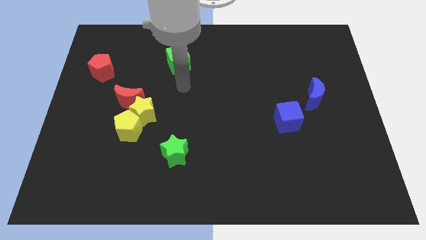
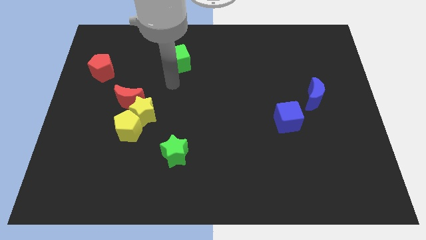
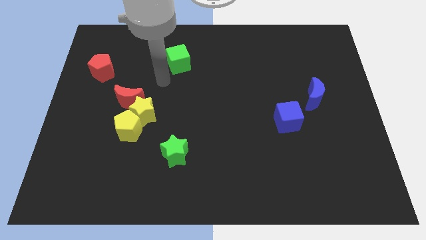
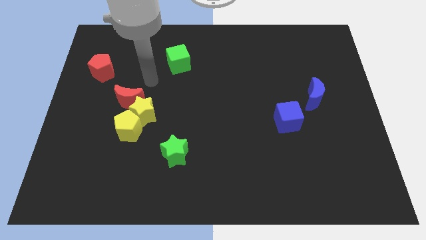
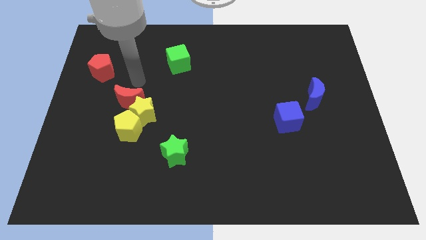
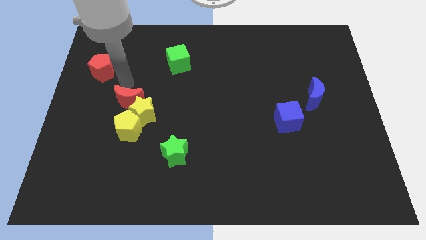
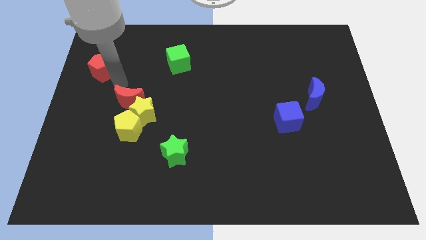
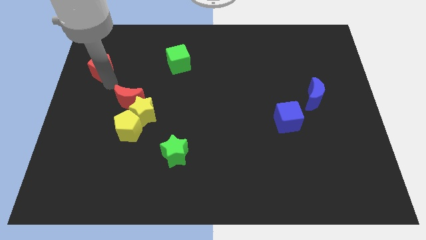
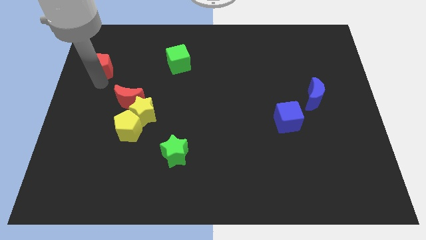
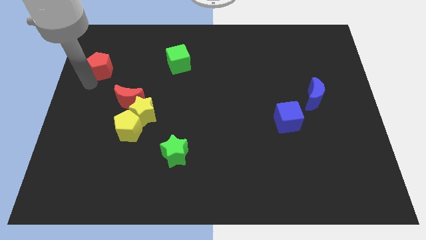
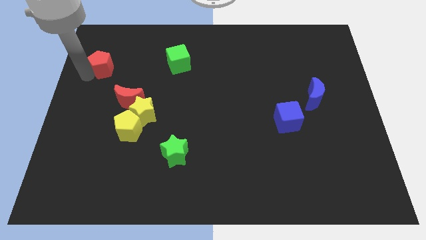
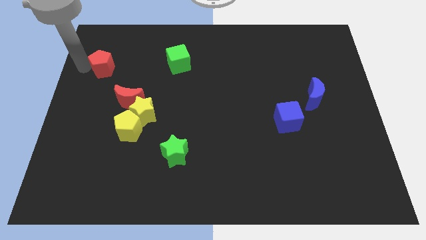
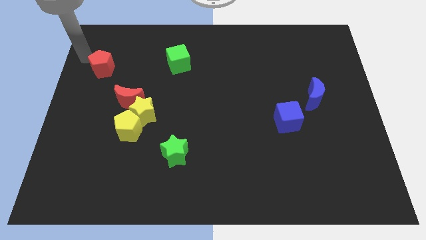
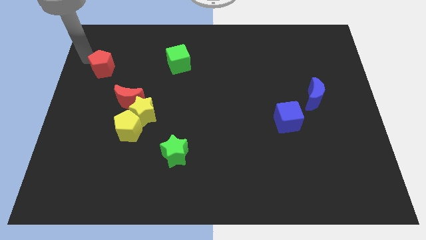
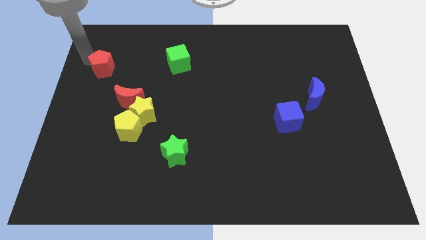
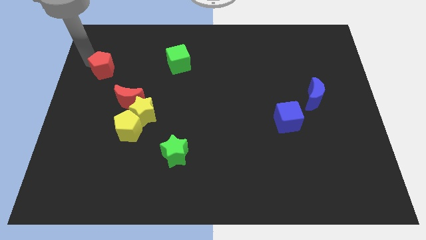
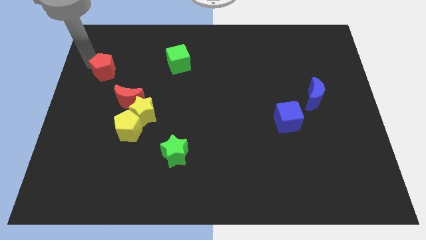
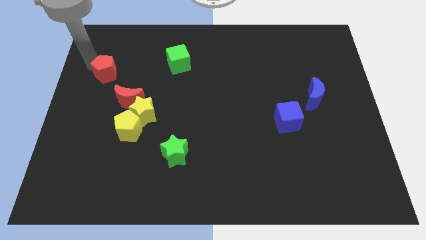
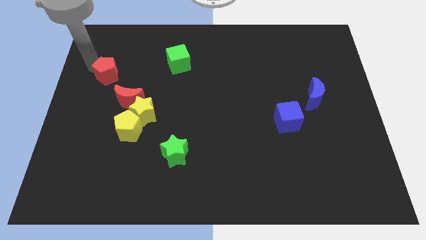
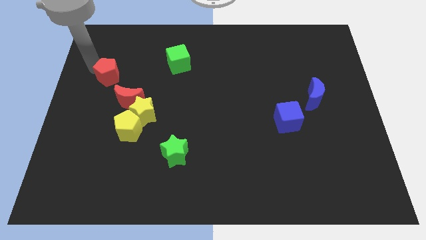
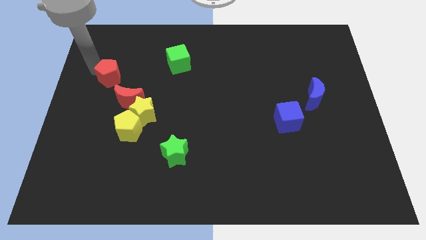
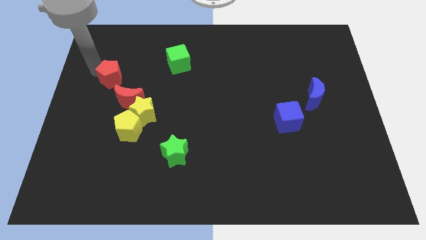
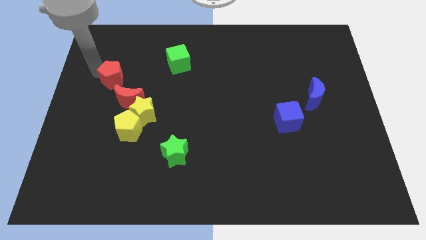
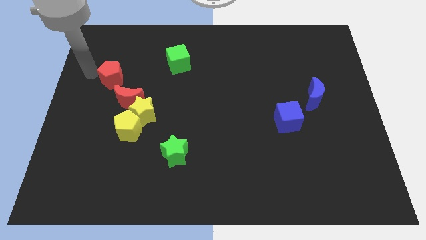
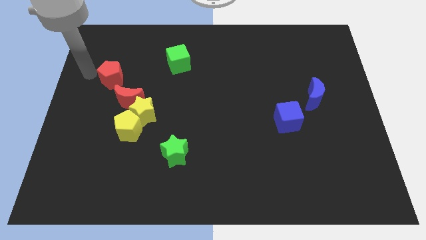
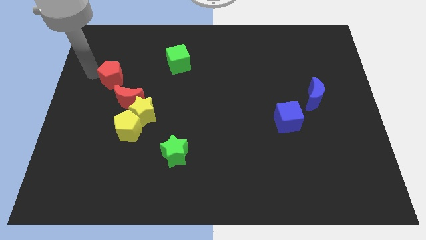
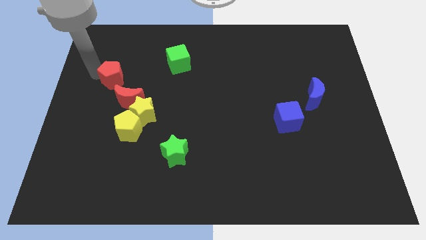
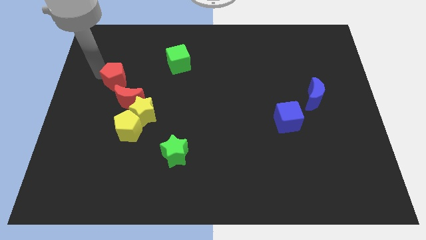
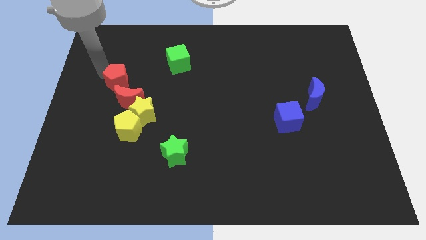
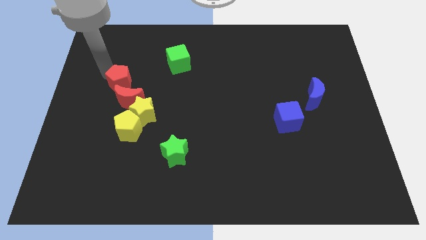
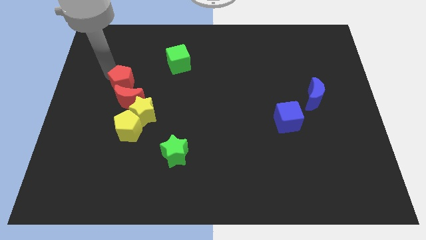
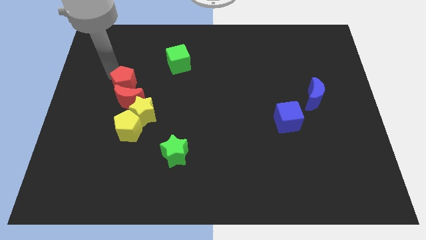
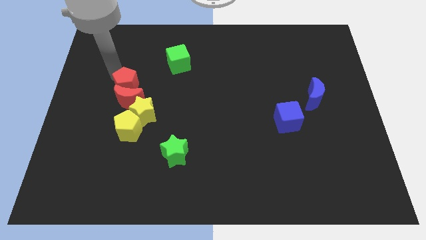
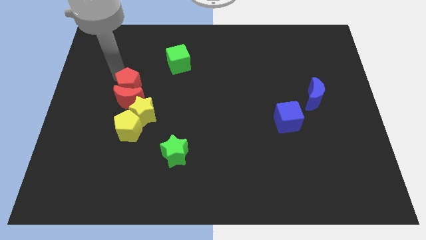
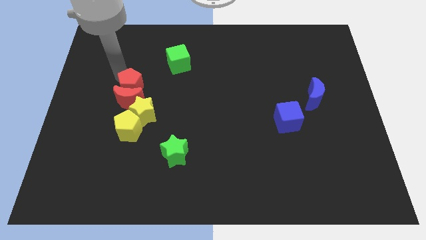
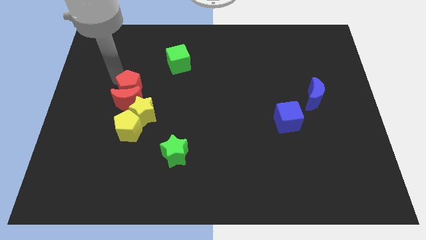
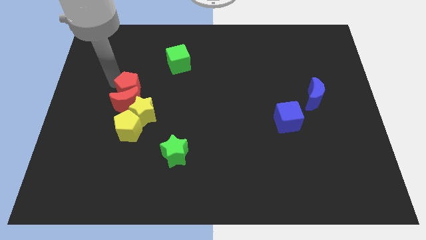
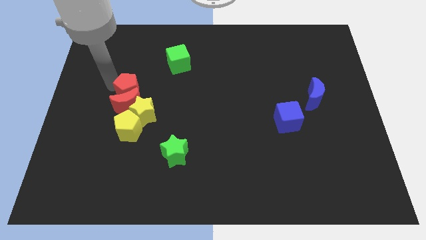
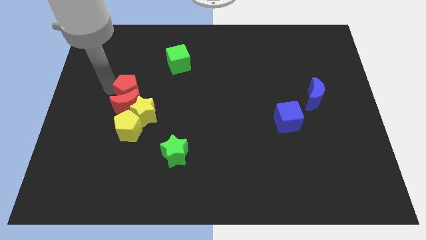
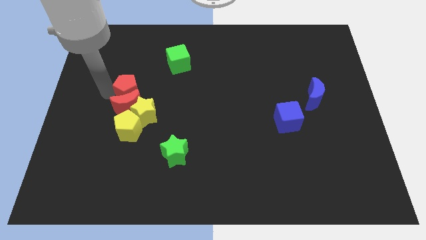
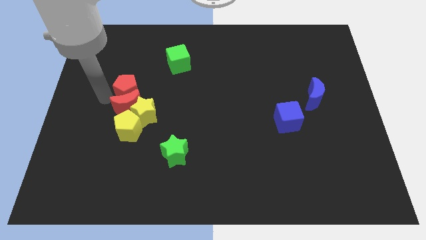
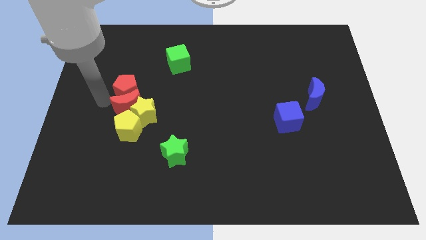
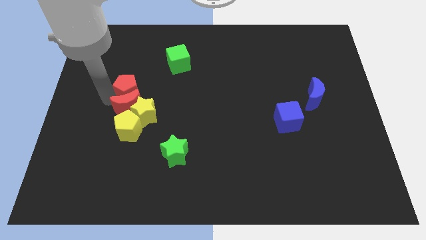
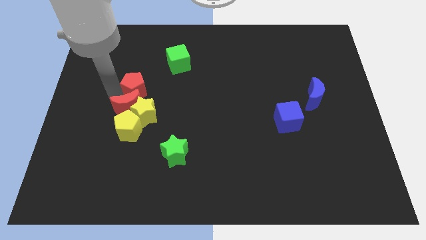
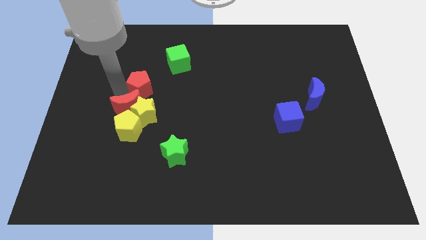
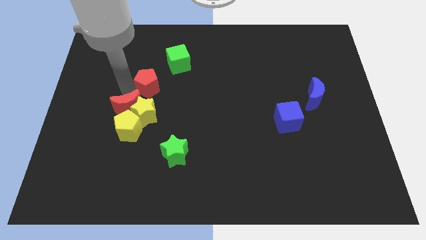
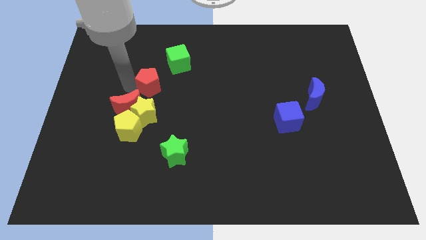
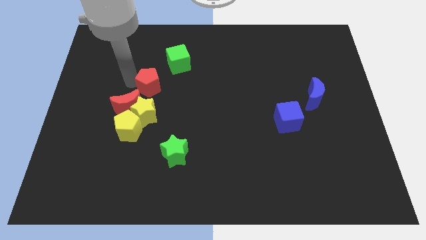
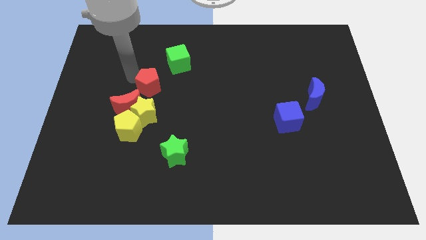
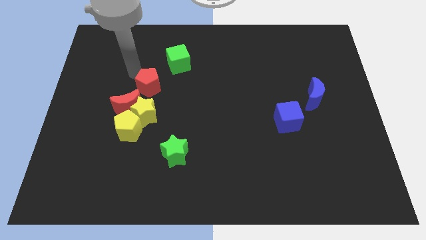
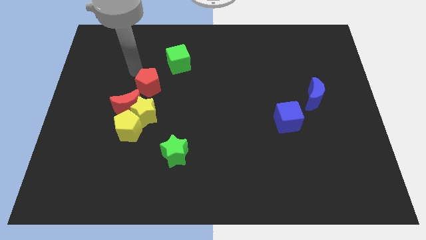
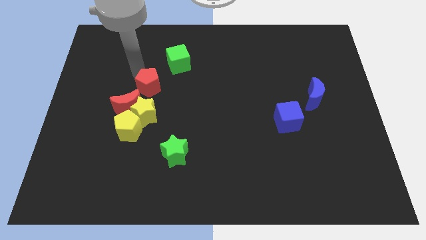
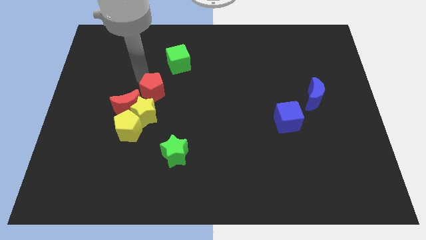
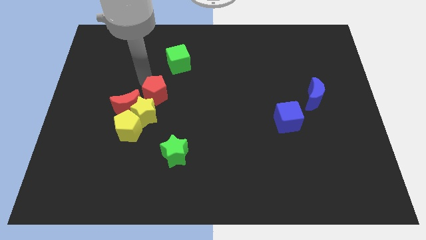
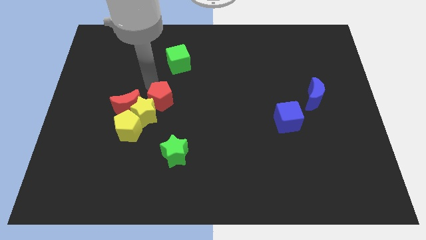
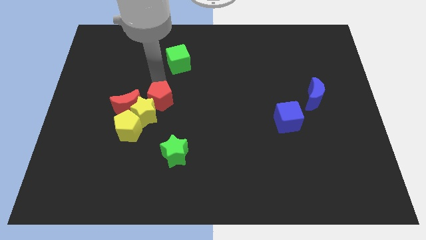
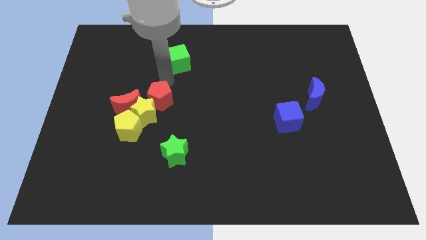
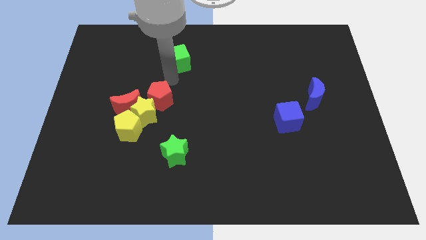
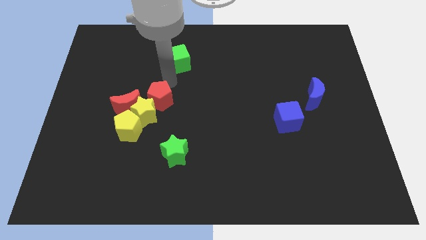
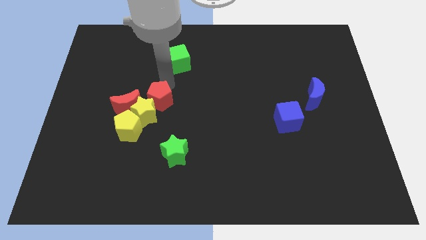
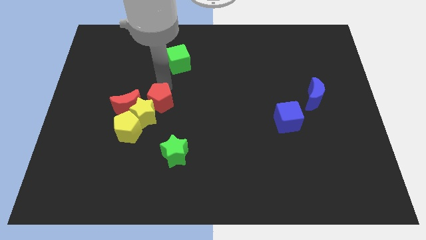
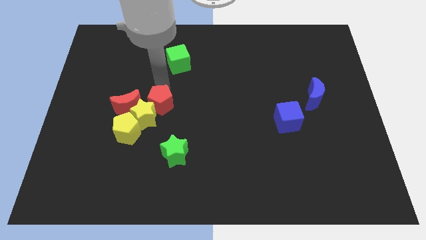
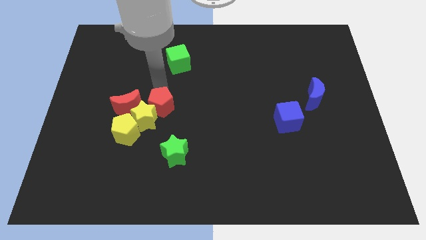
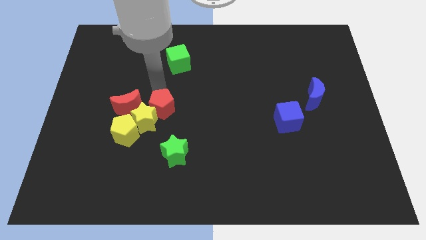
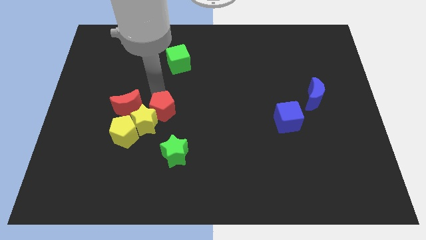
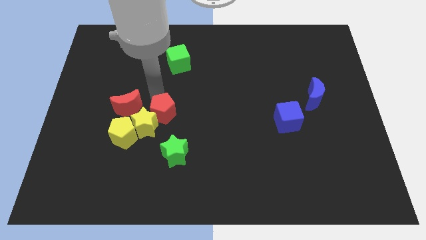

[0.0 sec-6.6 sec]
push the red pentagon diagonally down and to the right of the red moon

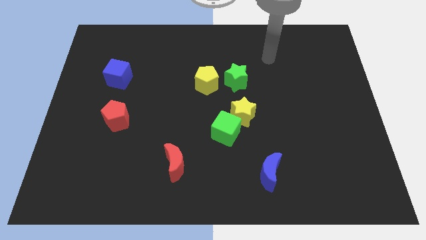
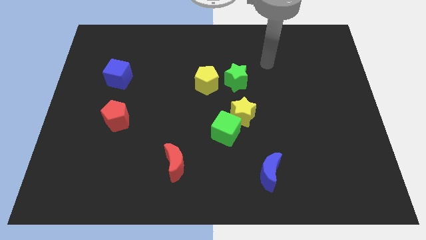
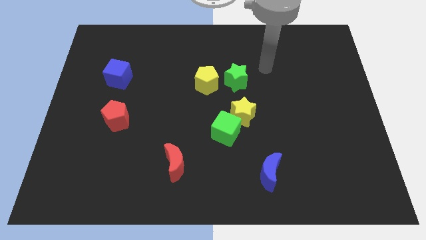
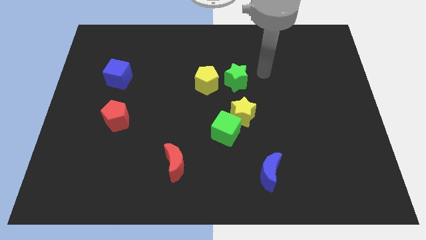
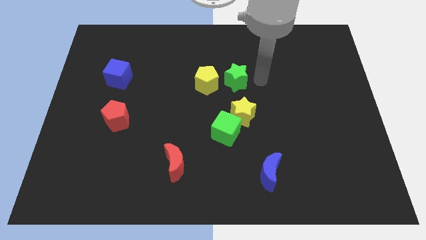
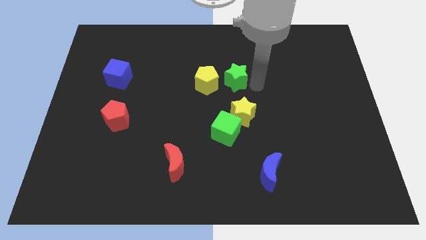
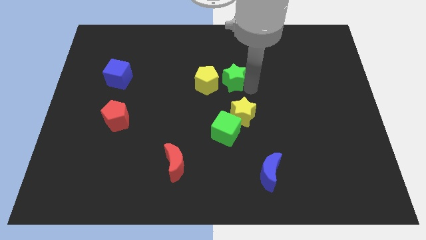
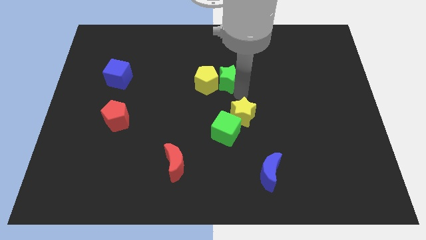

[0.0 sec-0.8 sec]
move the yellow pentagon to the top left of the green star
